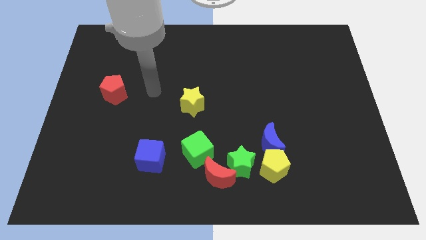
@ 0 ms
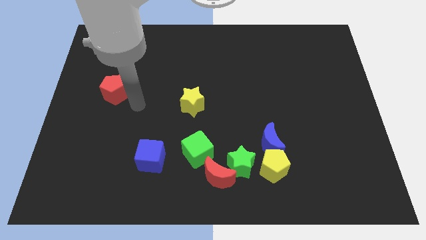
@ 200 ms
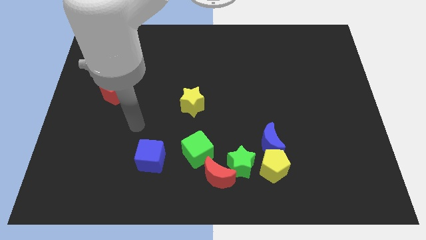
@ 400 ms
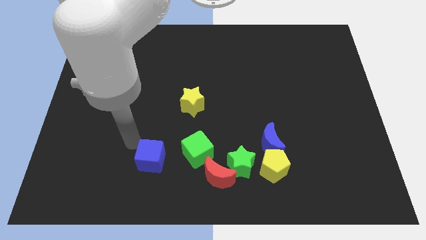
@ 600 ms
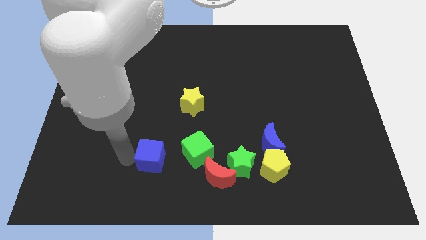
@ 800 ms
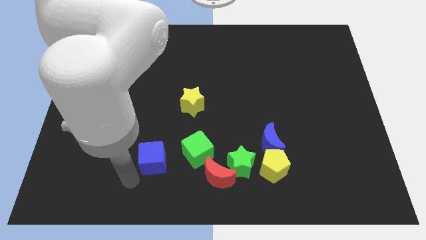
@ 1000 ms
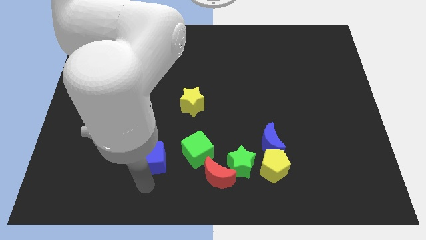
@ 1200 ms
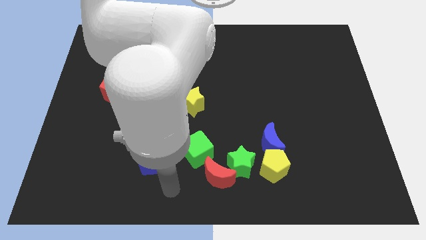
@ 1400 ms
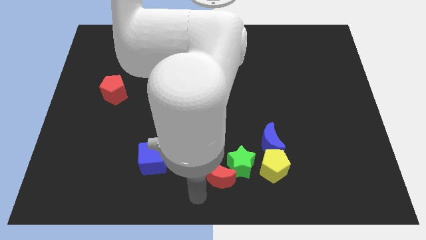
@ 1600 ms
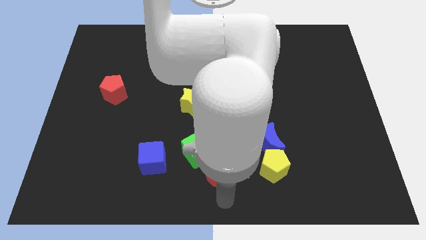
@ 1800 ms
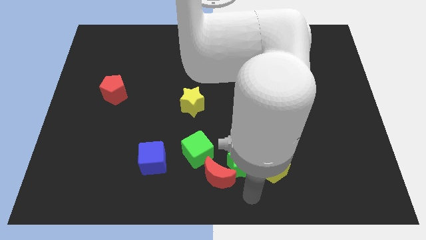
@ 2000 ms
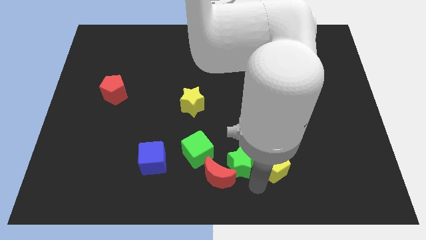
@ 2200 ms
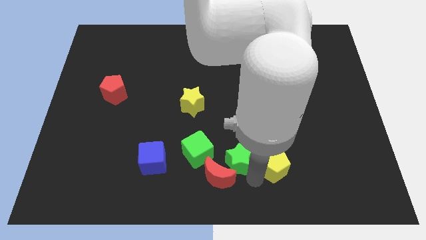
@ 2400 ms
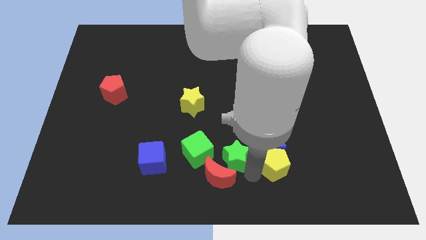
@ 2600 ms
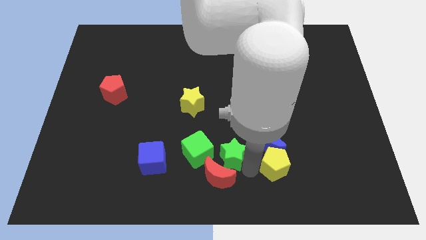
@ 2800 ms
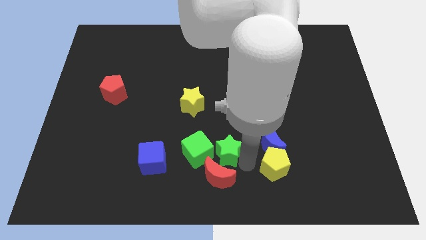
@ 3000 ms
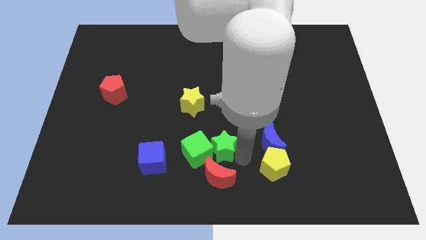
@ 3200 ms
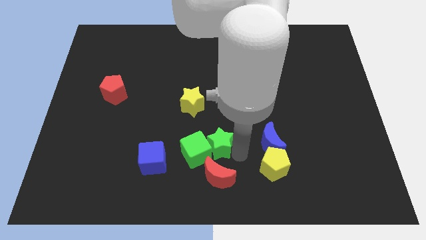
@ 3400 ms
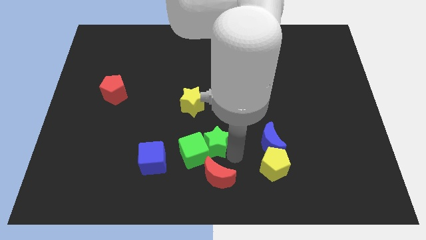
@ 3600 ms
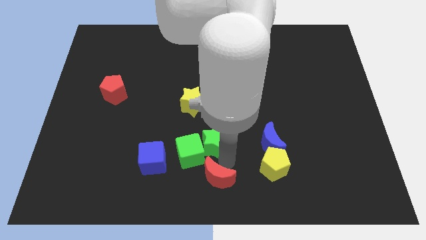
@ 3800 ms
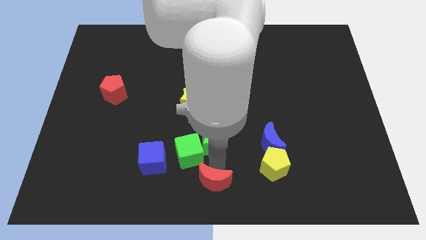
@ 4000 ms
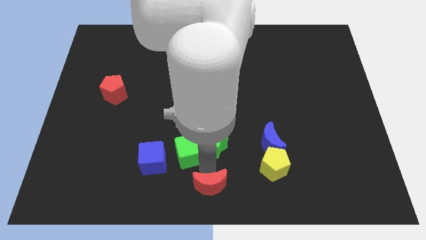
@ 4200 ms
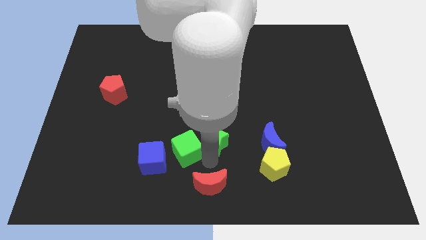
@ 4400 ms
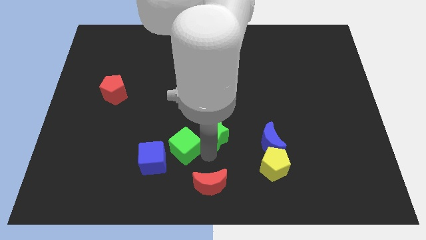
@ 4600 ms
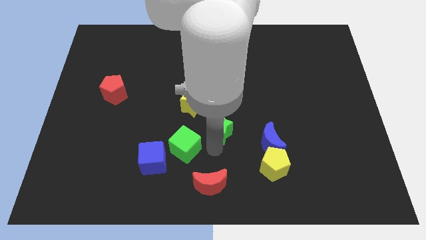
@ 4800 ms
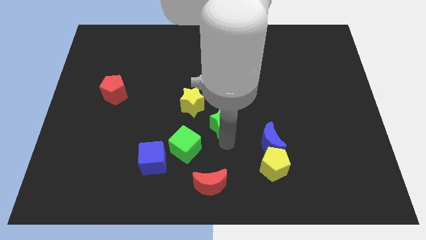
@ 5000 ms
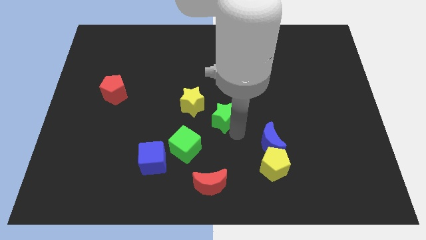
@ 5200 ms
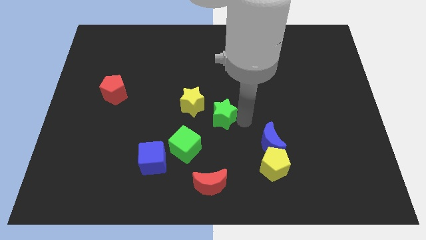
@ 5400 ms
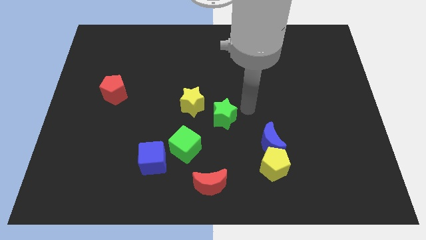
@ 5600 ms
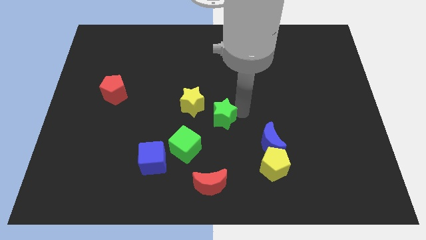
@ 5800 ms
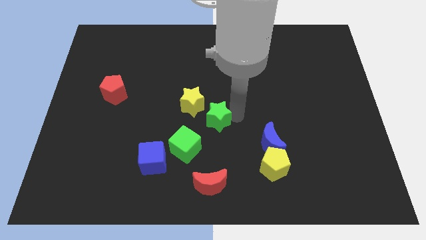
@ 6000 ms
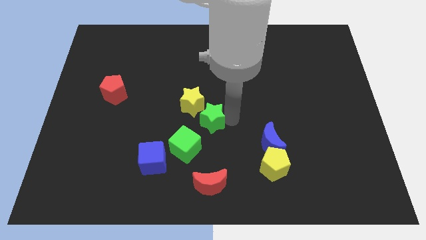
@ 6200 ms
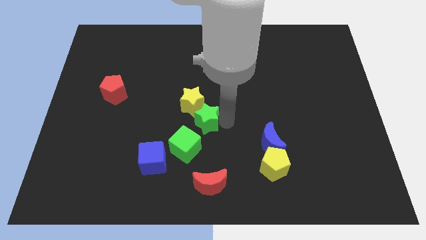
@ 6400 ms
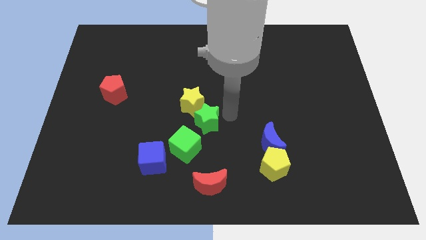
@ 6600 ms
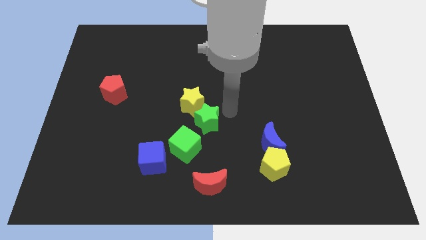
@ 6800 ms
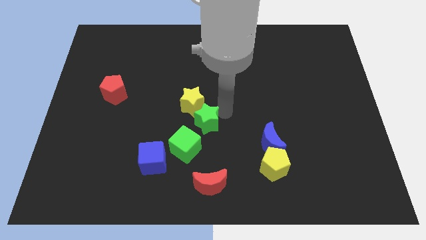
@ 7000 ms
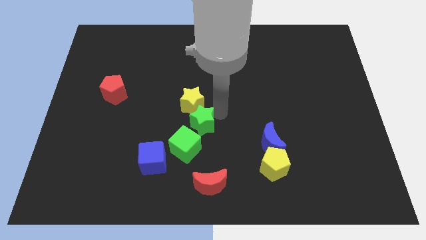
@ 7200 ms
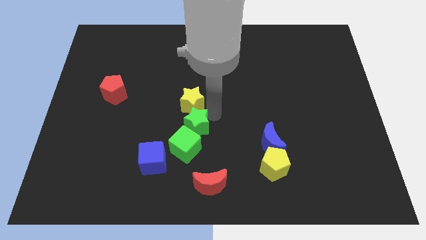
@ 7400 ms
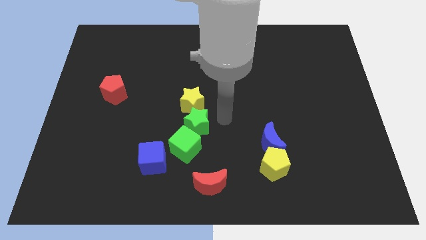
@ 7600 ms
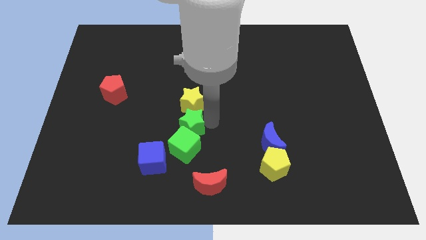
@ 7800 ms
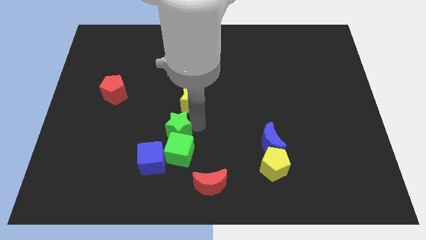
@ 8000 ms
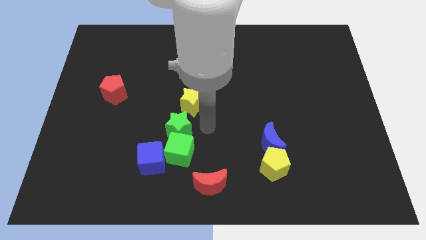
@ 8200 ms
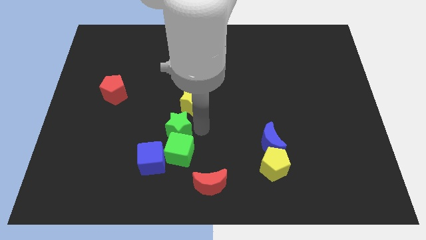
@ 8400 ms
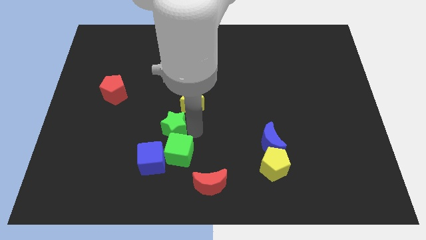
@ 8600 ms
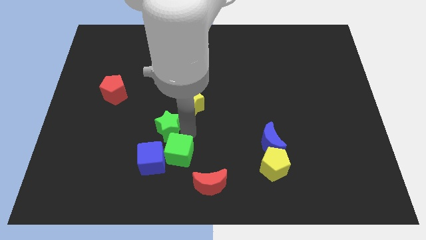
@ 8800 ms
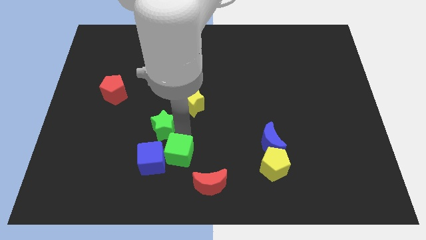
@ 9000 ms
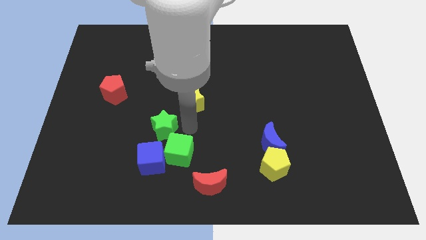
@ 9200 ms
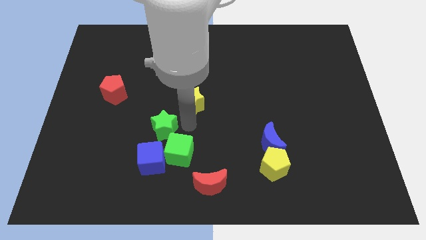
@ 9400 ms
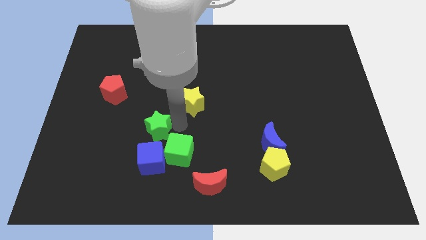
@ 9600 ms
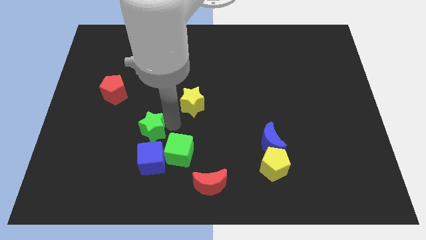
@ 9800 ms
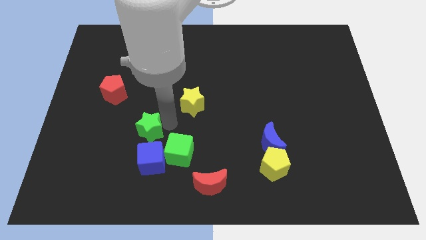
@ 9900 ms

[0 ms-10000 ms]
move the green star diagonally up and to the left of the blue cube

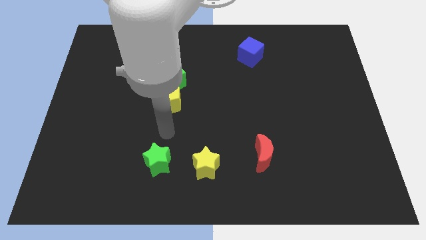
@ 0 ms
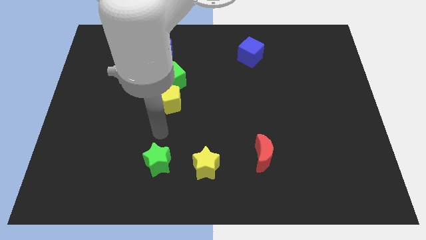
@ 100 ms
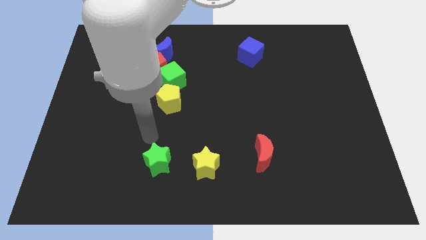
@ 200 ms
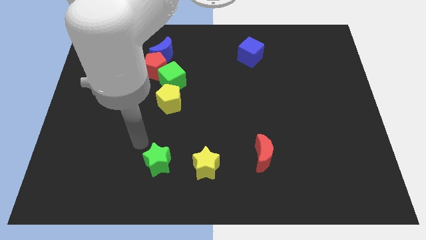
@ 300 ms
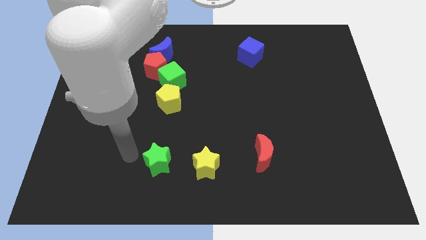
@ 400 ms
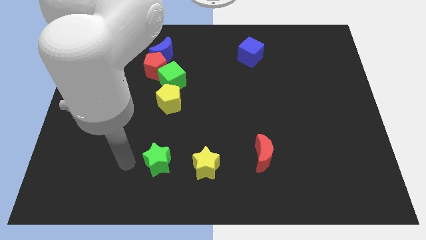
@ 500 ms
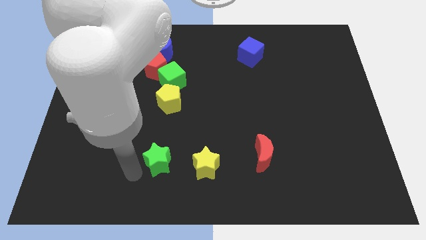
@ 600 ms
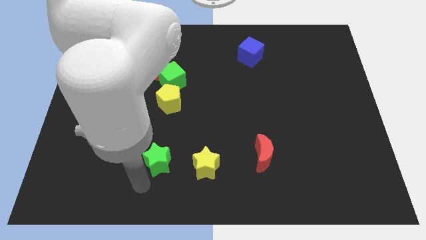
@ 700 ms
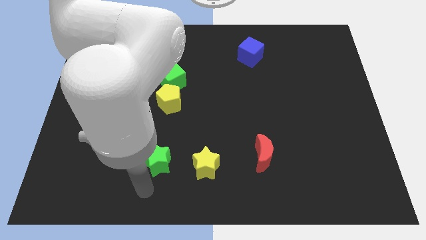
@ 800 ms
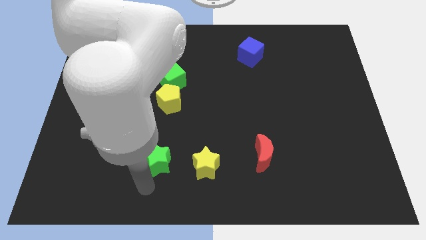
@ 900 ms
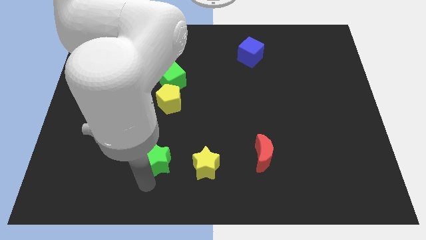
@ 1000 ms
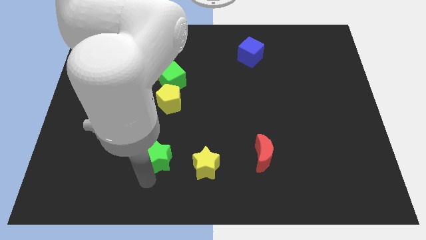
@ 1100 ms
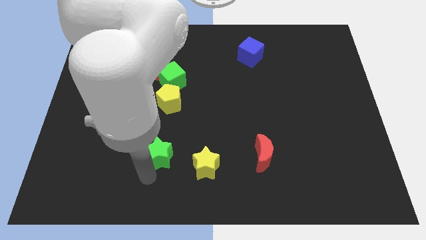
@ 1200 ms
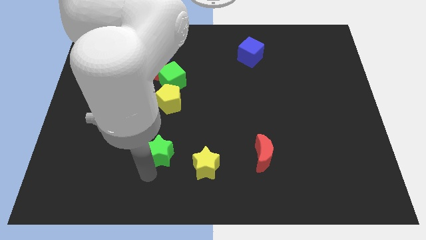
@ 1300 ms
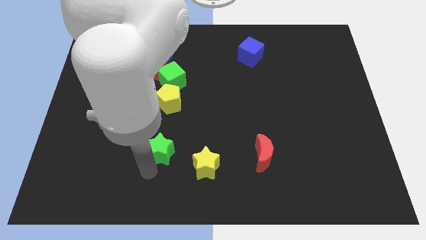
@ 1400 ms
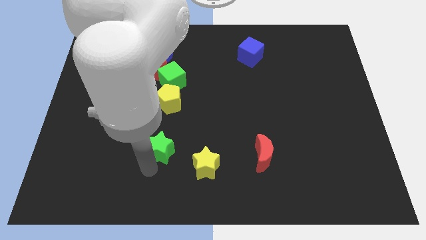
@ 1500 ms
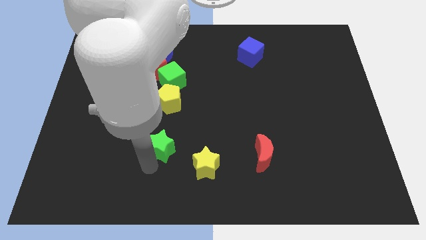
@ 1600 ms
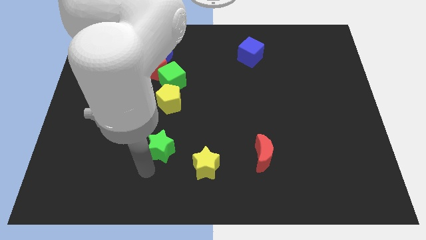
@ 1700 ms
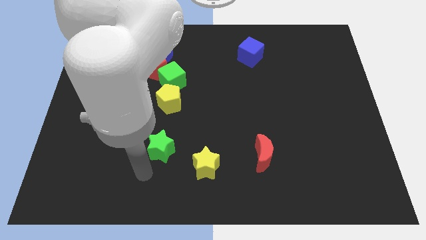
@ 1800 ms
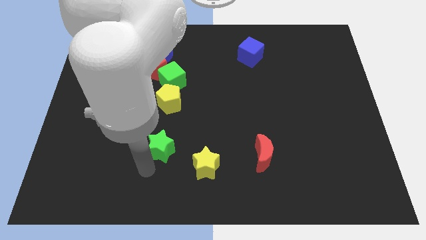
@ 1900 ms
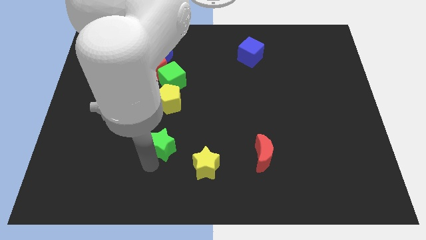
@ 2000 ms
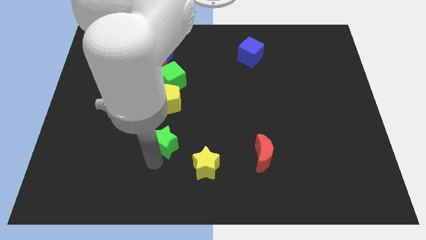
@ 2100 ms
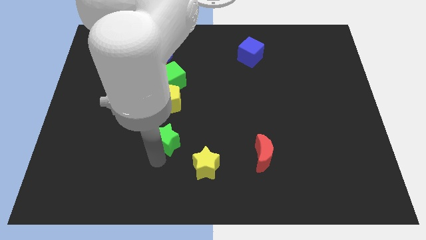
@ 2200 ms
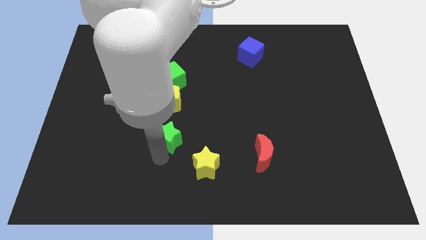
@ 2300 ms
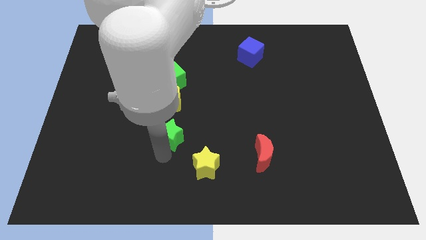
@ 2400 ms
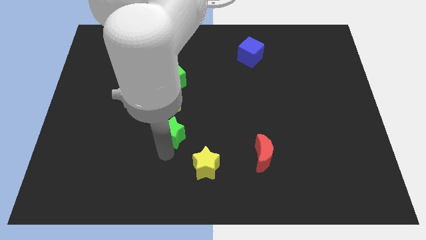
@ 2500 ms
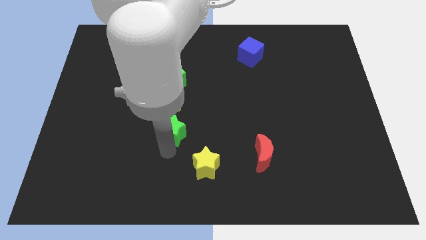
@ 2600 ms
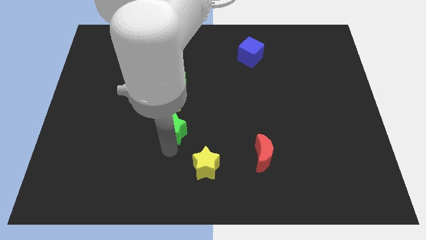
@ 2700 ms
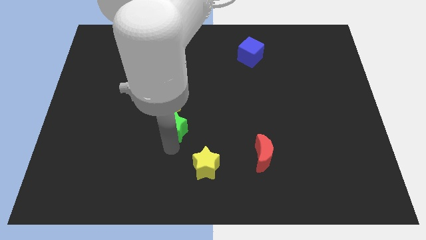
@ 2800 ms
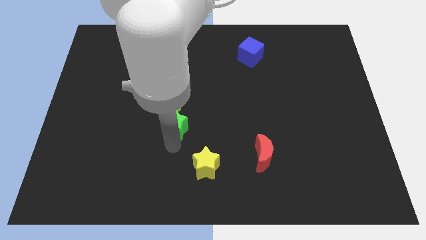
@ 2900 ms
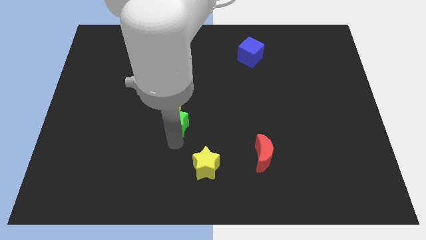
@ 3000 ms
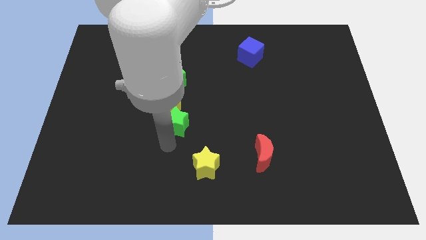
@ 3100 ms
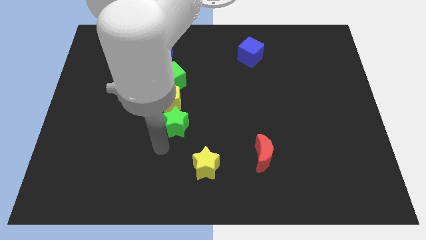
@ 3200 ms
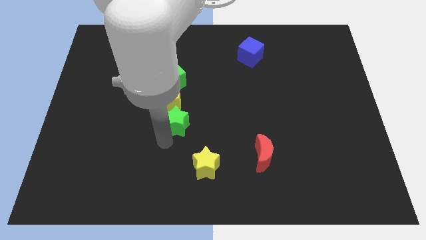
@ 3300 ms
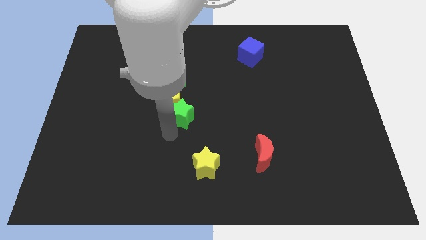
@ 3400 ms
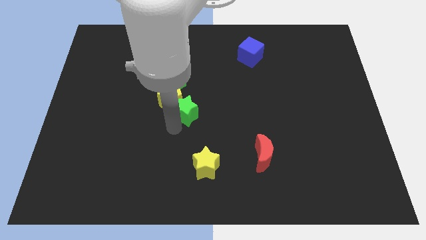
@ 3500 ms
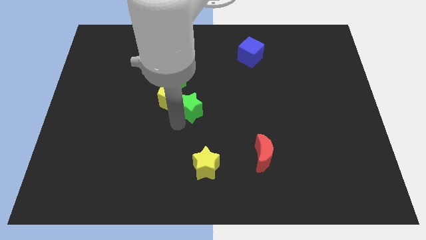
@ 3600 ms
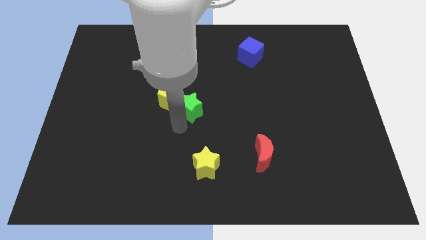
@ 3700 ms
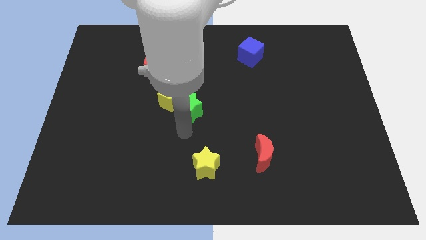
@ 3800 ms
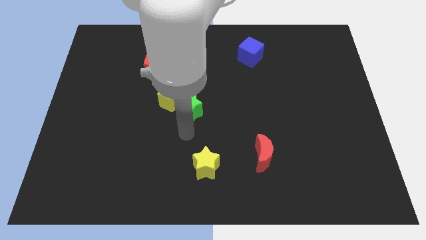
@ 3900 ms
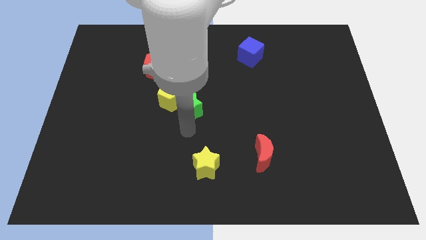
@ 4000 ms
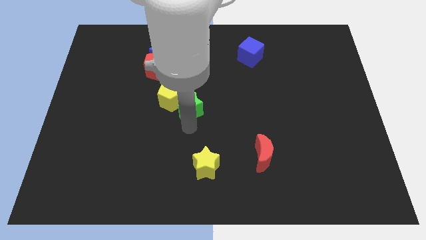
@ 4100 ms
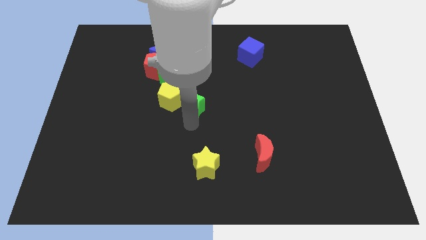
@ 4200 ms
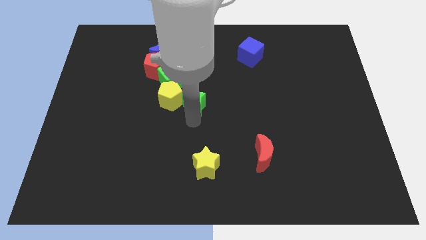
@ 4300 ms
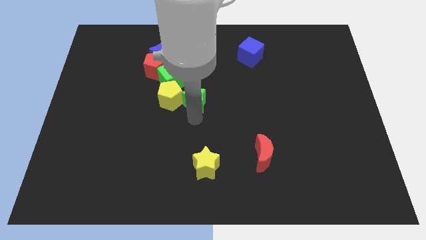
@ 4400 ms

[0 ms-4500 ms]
slide the green star diagonally up and to the right of the yellow pentagon
